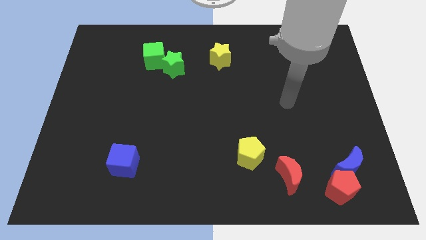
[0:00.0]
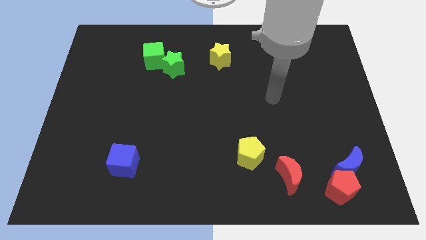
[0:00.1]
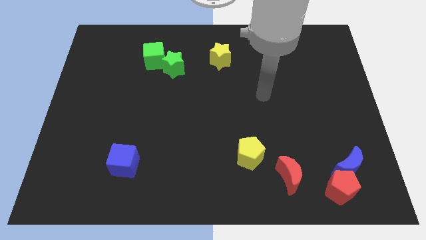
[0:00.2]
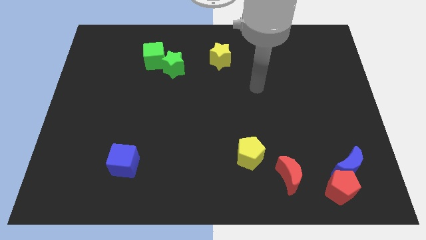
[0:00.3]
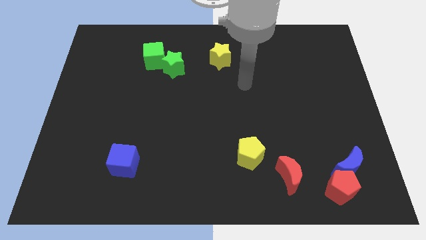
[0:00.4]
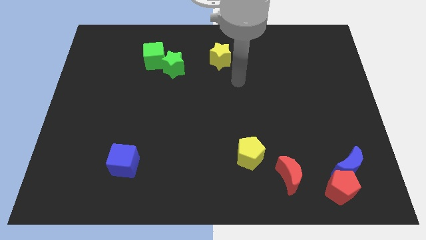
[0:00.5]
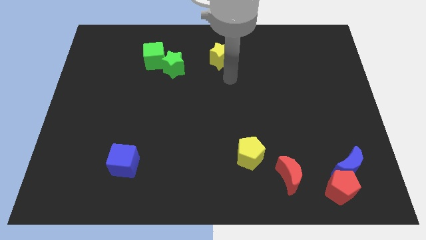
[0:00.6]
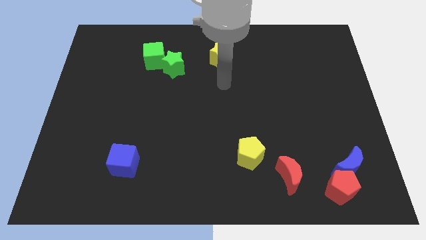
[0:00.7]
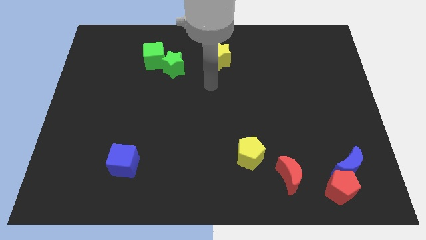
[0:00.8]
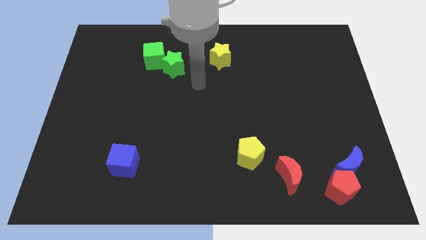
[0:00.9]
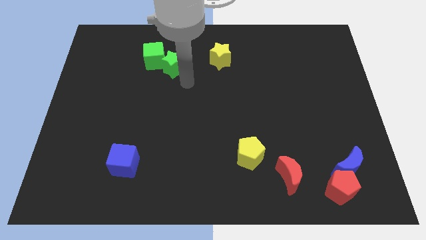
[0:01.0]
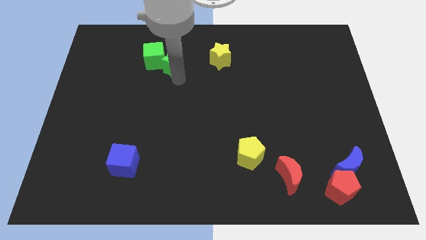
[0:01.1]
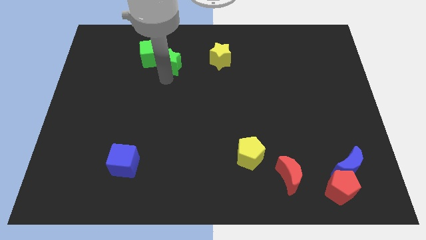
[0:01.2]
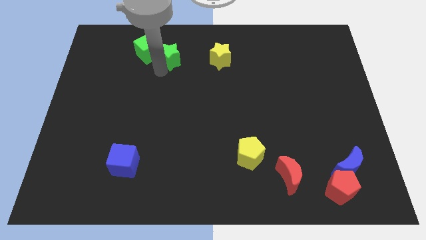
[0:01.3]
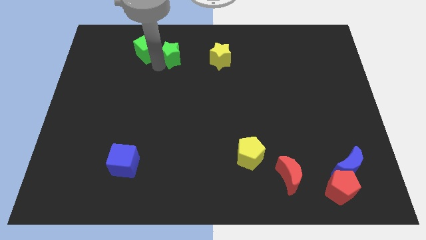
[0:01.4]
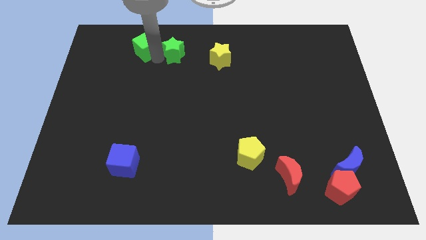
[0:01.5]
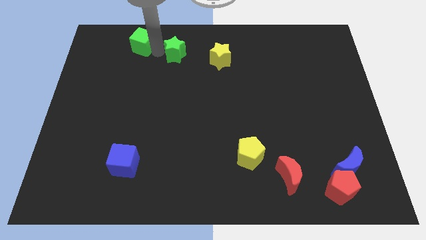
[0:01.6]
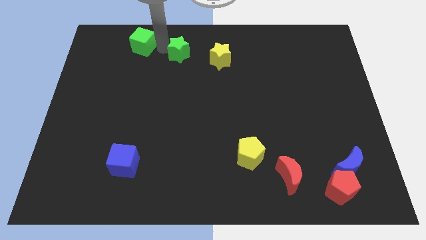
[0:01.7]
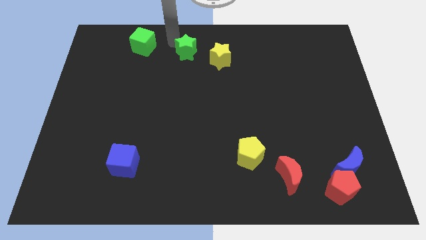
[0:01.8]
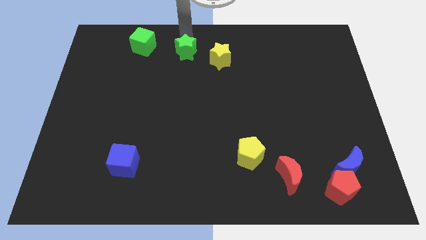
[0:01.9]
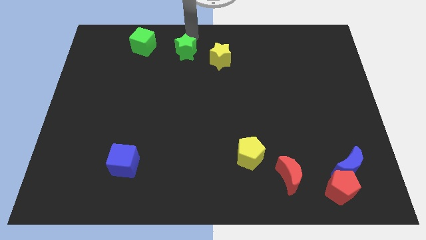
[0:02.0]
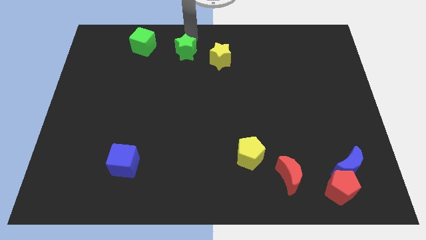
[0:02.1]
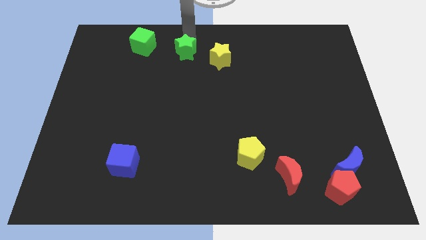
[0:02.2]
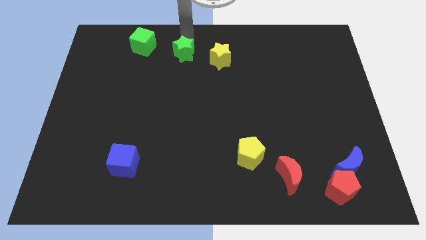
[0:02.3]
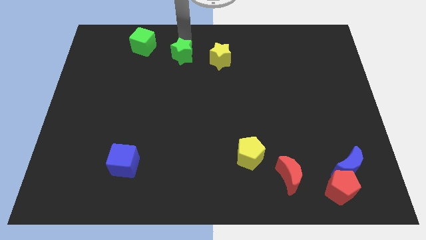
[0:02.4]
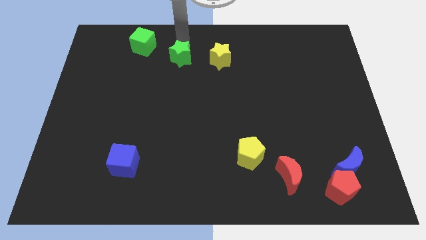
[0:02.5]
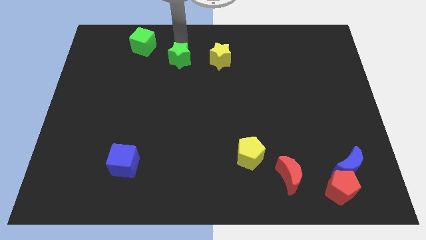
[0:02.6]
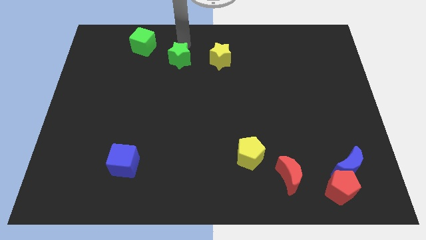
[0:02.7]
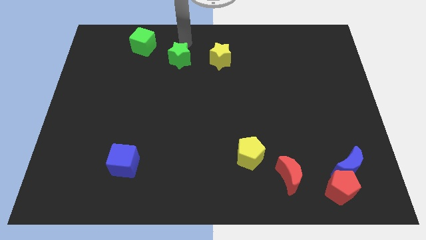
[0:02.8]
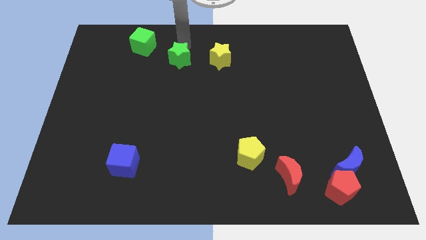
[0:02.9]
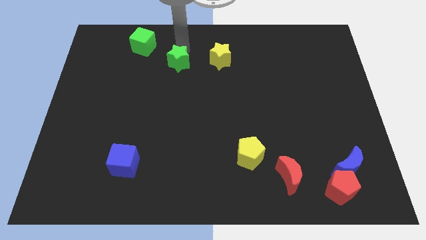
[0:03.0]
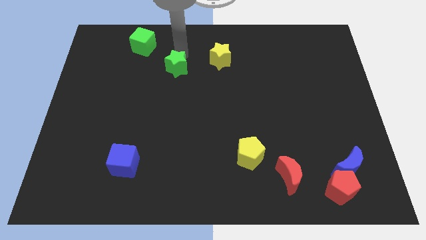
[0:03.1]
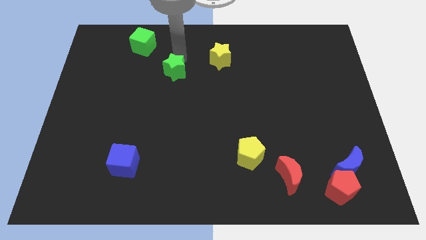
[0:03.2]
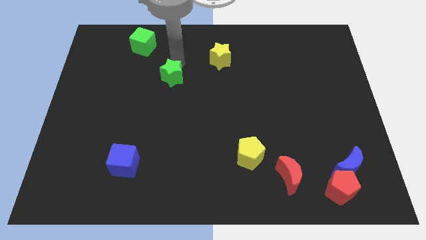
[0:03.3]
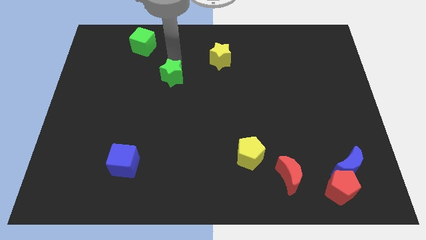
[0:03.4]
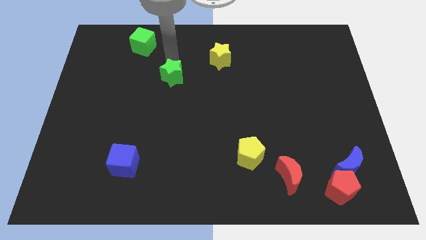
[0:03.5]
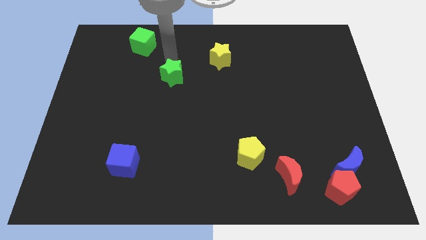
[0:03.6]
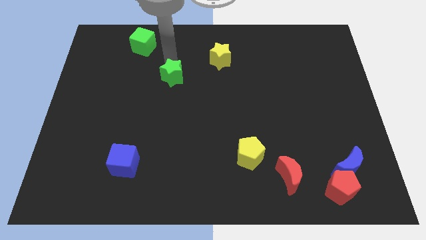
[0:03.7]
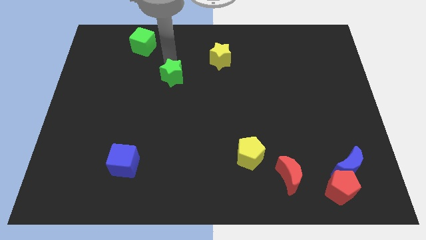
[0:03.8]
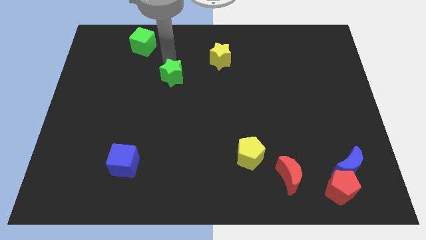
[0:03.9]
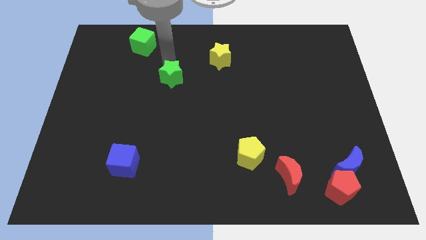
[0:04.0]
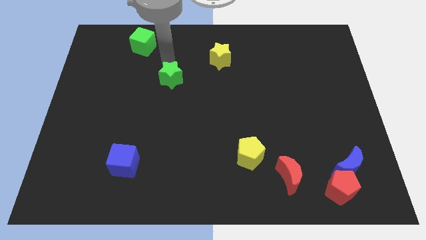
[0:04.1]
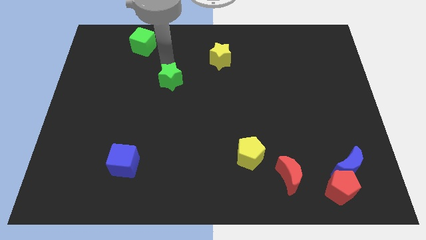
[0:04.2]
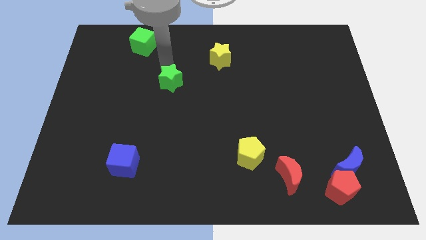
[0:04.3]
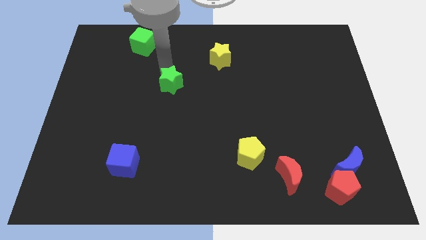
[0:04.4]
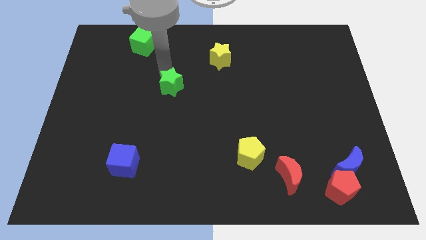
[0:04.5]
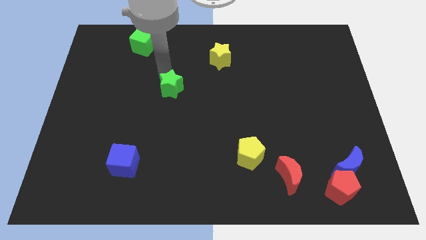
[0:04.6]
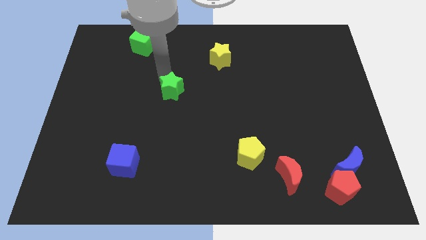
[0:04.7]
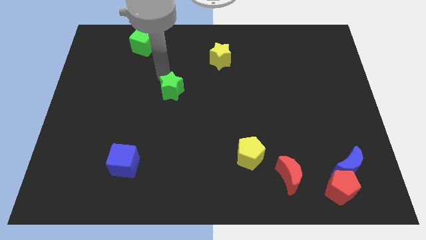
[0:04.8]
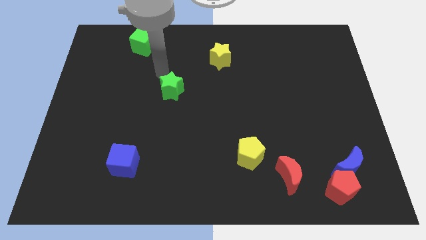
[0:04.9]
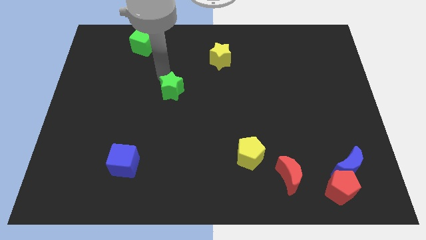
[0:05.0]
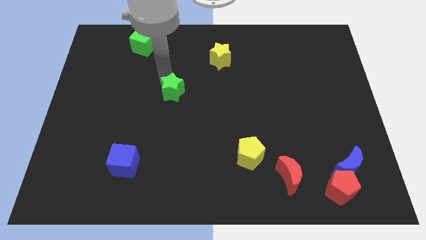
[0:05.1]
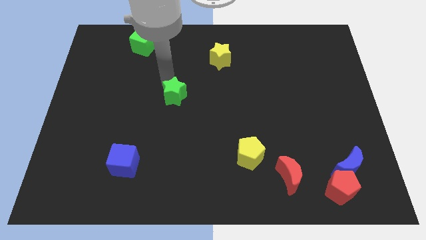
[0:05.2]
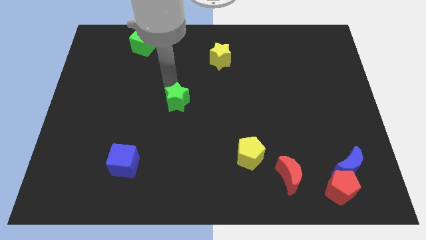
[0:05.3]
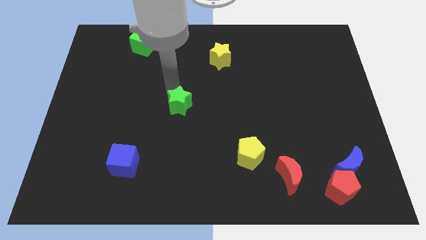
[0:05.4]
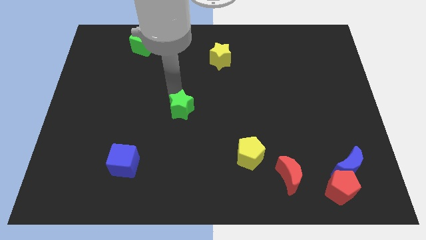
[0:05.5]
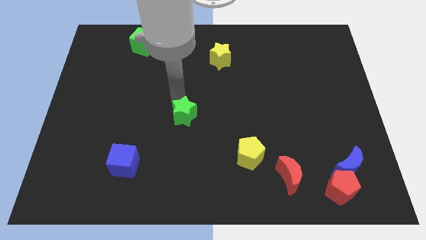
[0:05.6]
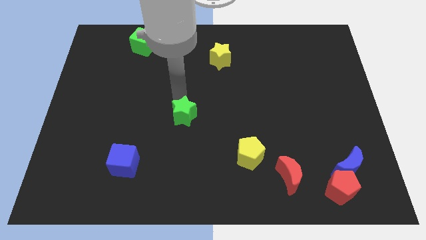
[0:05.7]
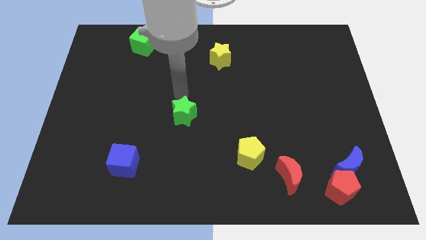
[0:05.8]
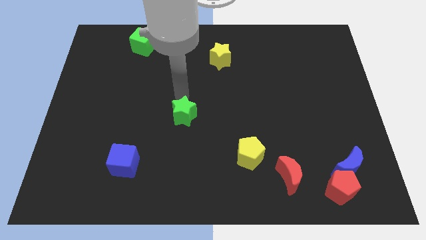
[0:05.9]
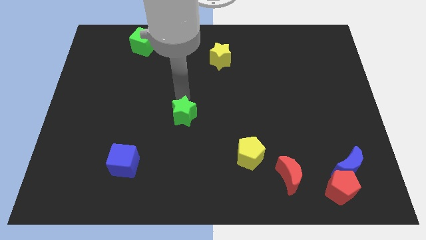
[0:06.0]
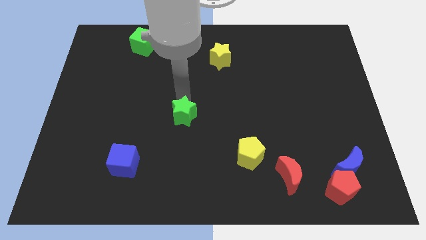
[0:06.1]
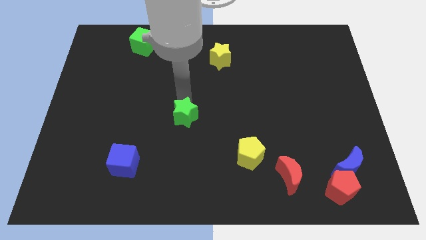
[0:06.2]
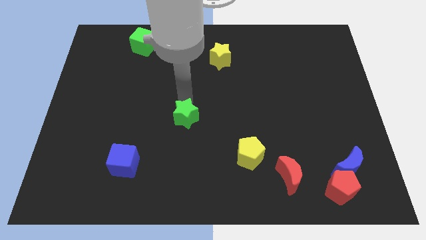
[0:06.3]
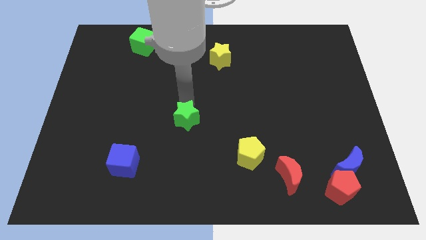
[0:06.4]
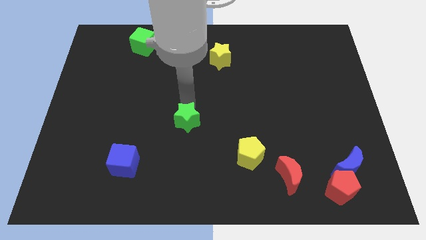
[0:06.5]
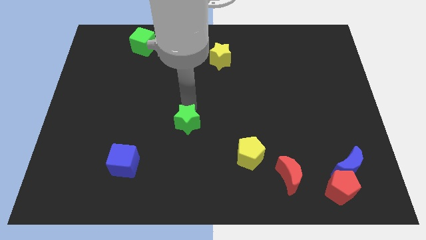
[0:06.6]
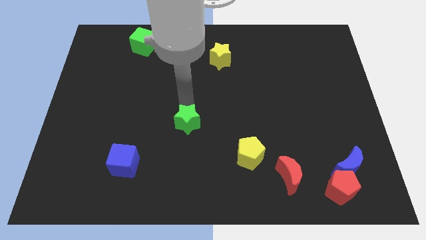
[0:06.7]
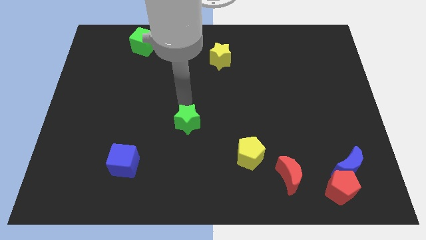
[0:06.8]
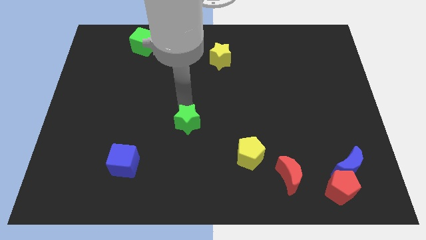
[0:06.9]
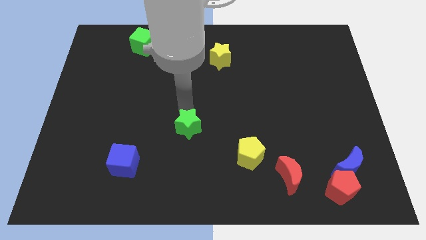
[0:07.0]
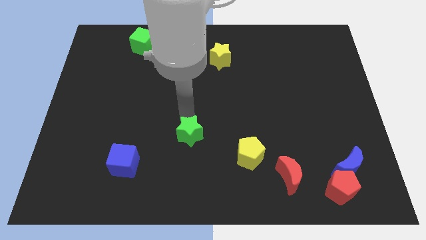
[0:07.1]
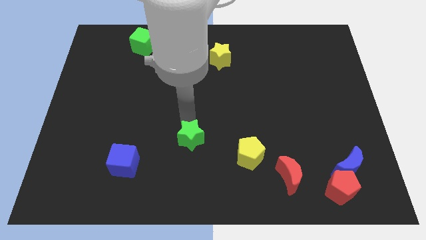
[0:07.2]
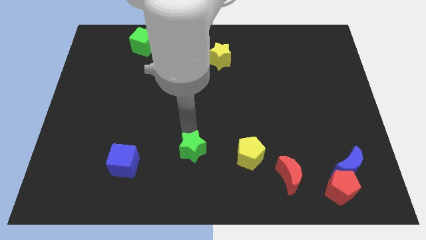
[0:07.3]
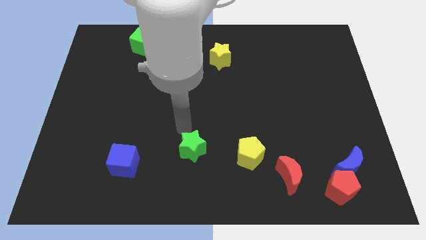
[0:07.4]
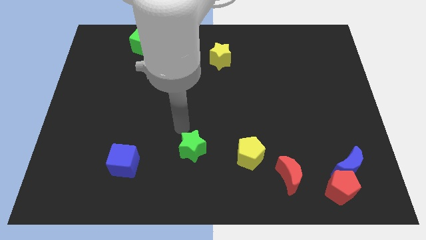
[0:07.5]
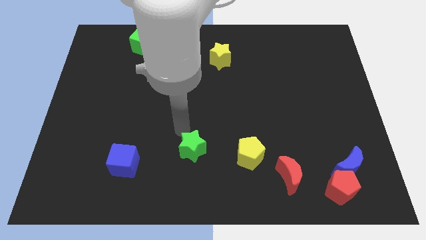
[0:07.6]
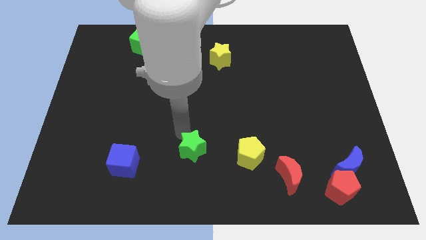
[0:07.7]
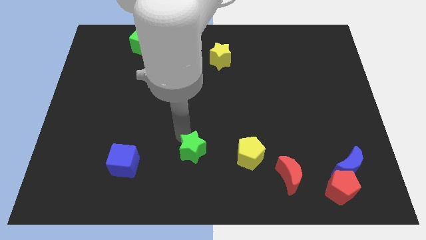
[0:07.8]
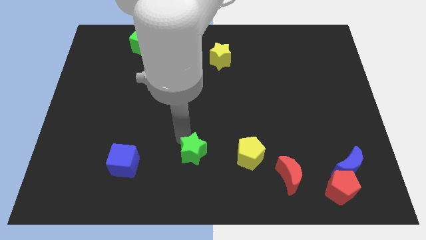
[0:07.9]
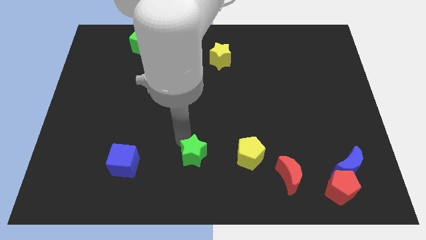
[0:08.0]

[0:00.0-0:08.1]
put the green star to the bottom side
